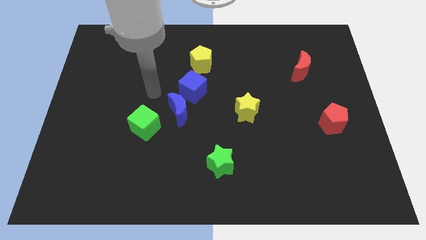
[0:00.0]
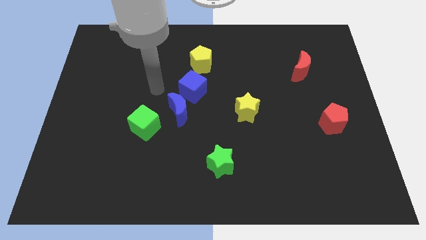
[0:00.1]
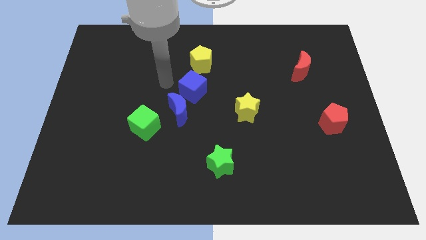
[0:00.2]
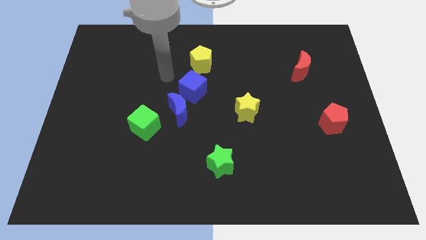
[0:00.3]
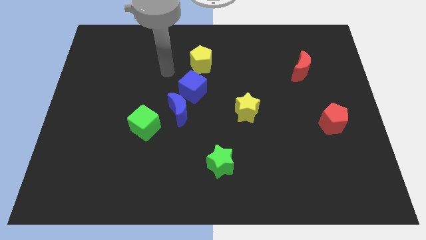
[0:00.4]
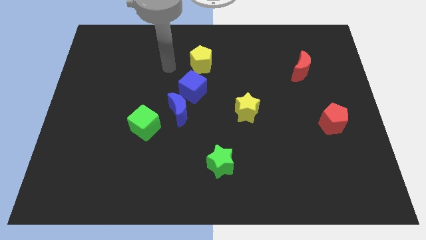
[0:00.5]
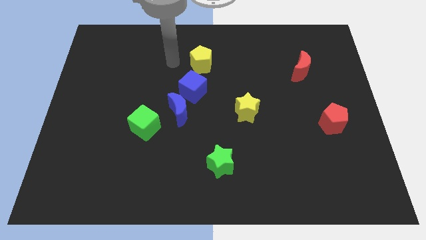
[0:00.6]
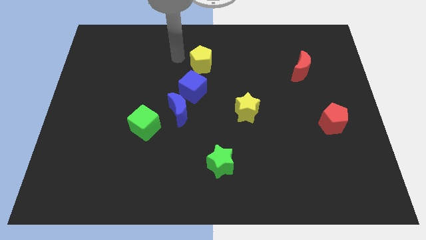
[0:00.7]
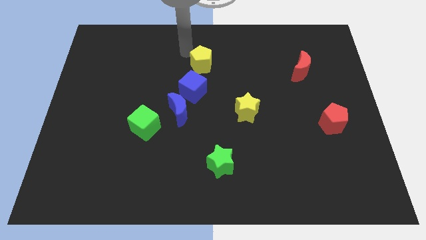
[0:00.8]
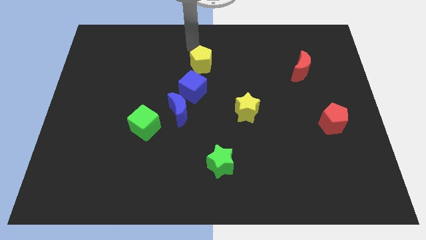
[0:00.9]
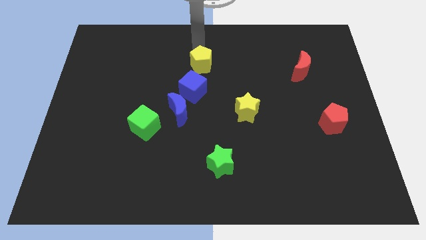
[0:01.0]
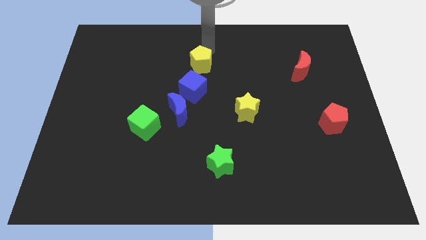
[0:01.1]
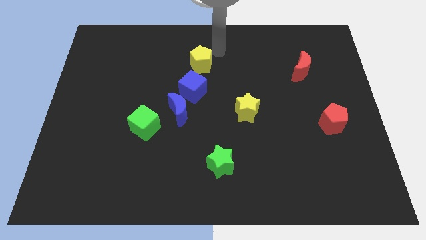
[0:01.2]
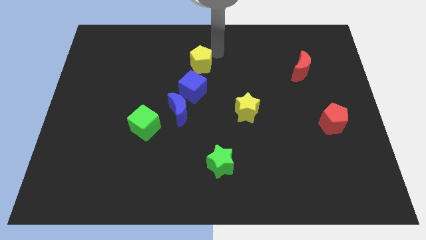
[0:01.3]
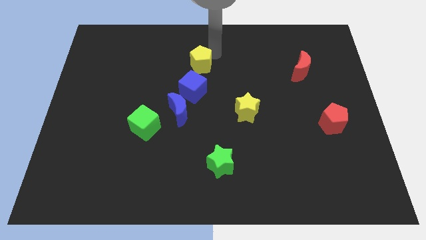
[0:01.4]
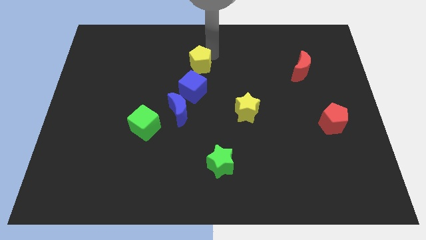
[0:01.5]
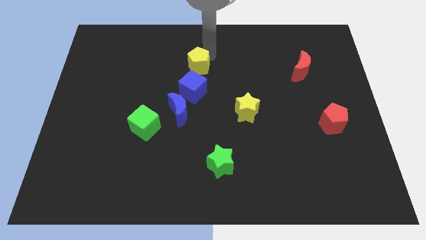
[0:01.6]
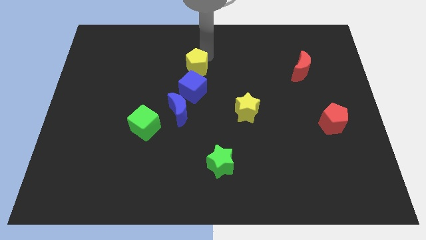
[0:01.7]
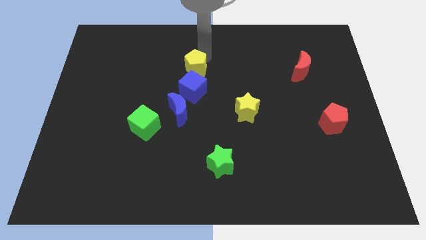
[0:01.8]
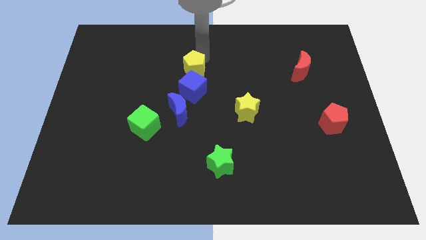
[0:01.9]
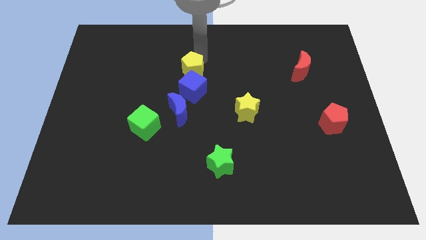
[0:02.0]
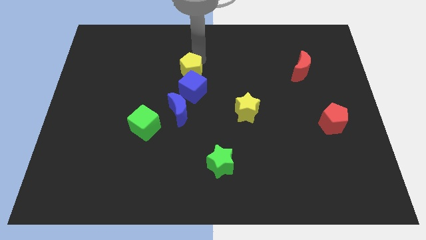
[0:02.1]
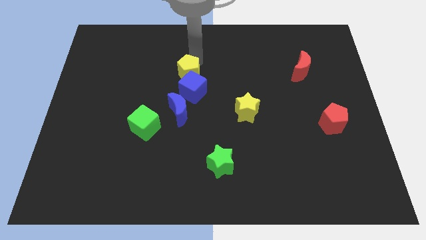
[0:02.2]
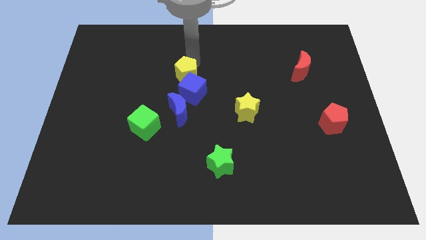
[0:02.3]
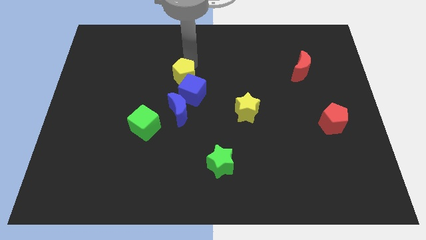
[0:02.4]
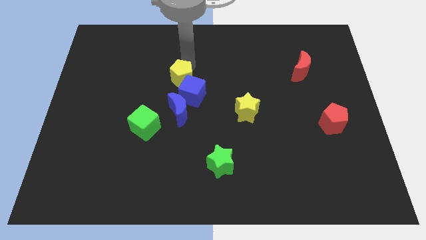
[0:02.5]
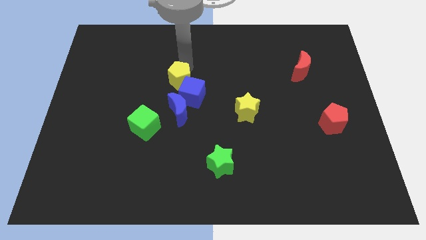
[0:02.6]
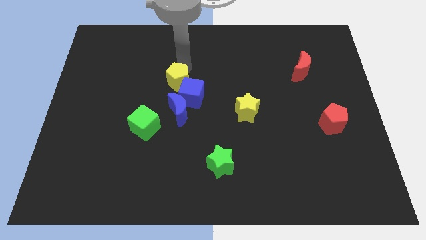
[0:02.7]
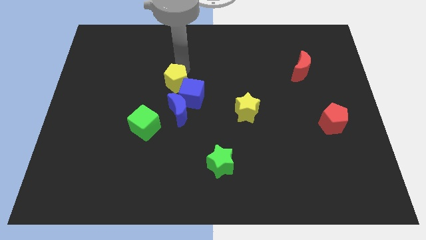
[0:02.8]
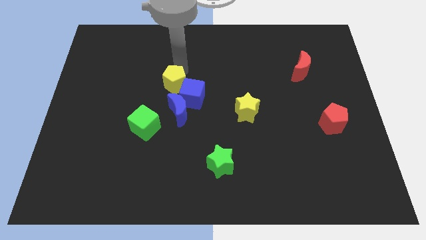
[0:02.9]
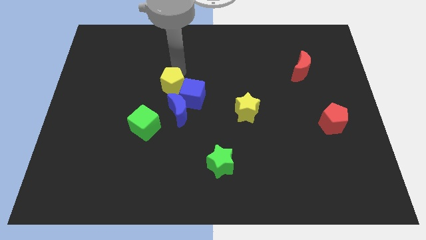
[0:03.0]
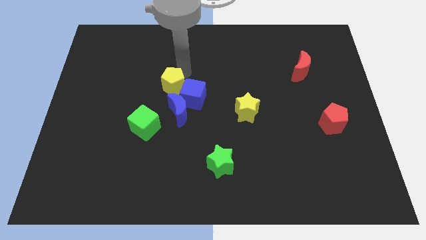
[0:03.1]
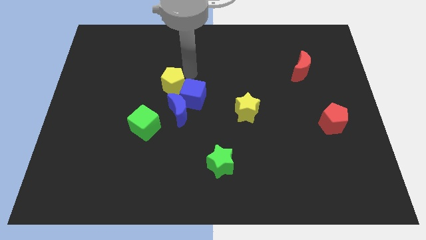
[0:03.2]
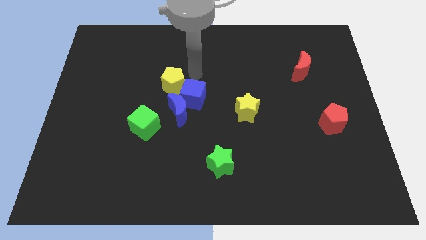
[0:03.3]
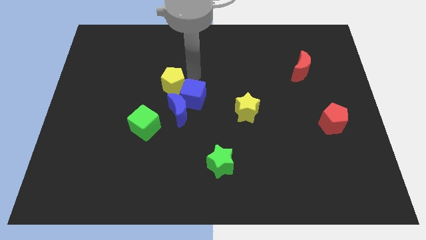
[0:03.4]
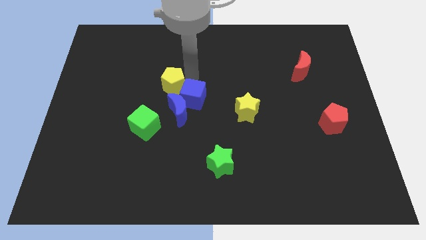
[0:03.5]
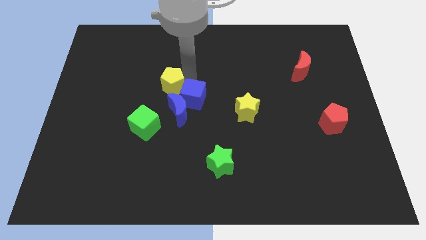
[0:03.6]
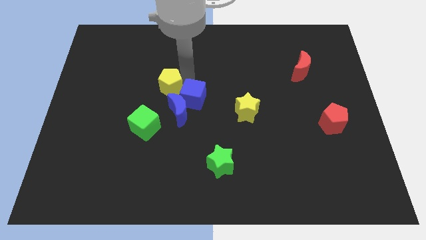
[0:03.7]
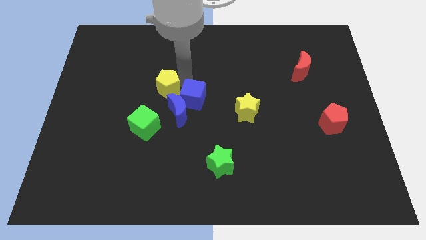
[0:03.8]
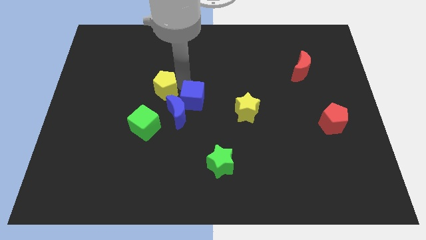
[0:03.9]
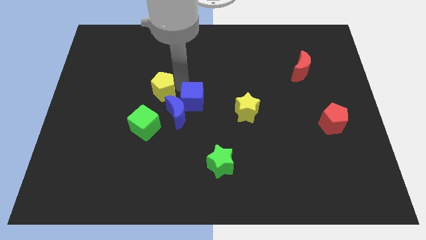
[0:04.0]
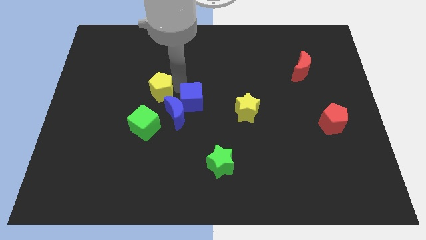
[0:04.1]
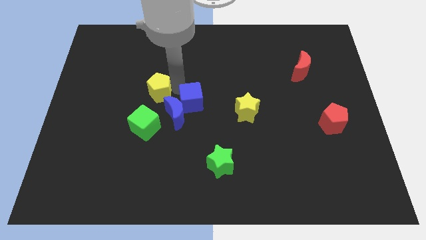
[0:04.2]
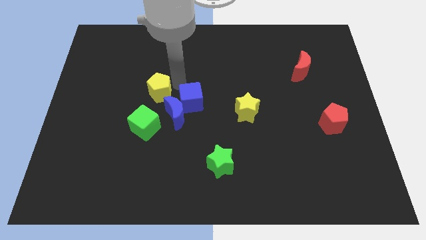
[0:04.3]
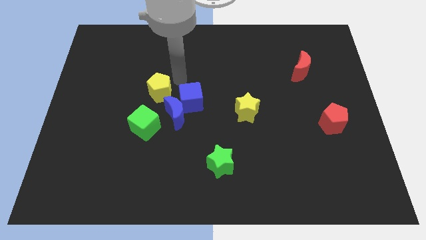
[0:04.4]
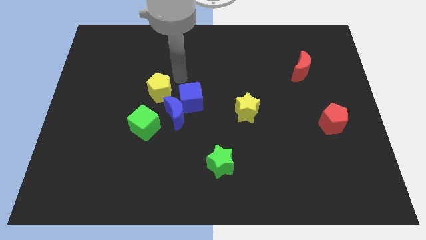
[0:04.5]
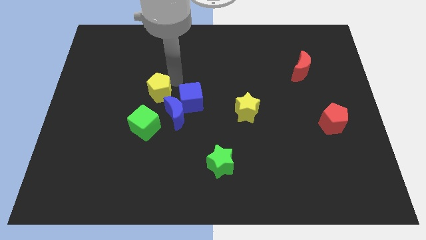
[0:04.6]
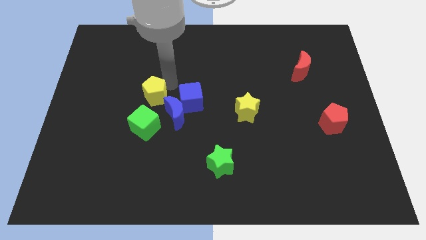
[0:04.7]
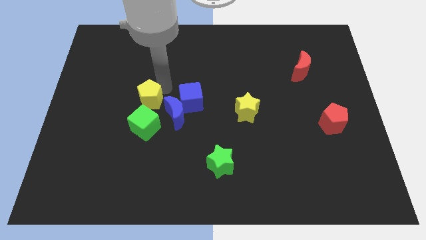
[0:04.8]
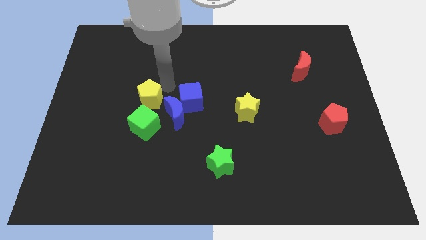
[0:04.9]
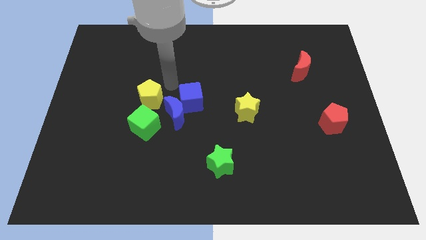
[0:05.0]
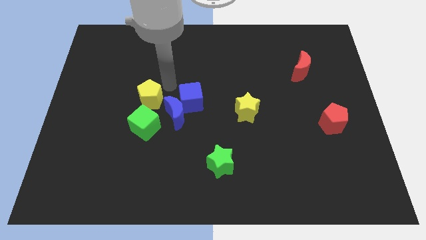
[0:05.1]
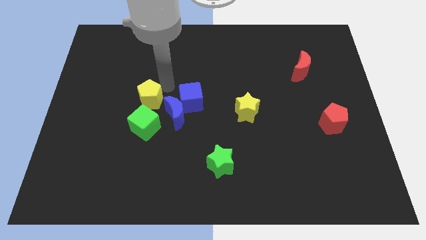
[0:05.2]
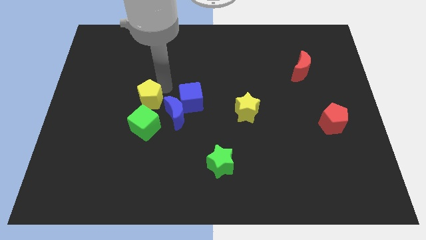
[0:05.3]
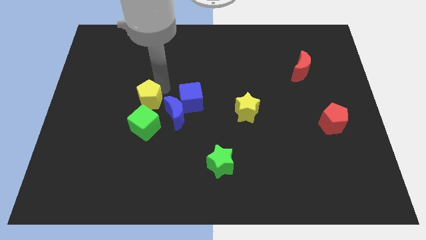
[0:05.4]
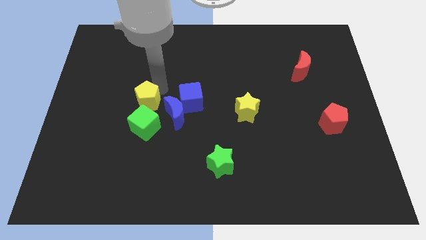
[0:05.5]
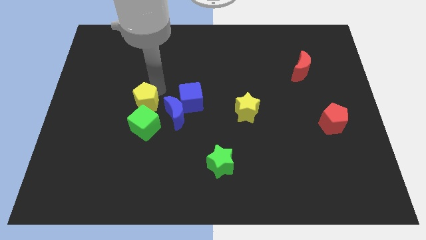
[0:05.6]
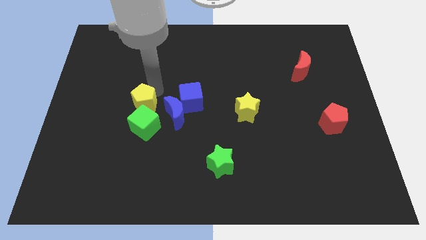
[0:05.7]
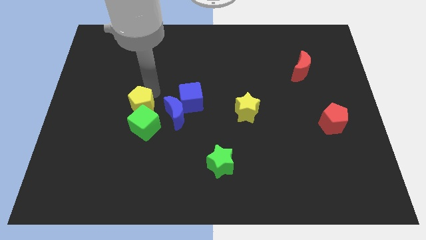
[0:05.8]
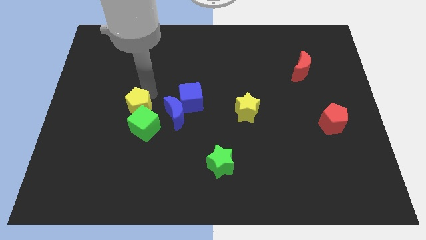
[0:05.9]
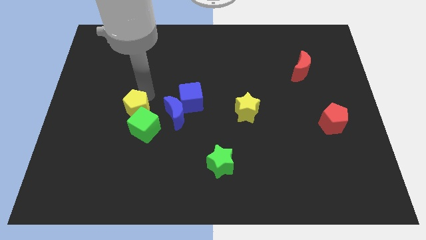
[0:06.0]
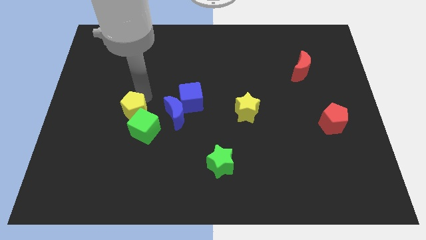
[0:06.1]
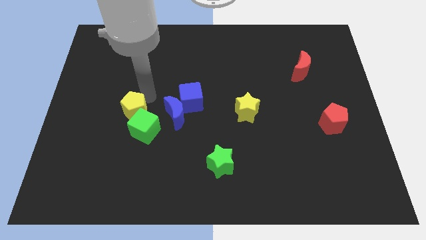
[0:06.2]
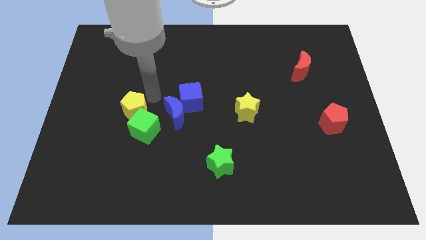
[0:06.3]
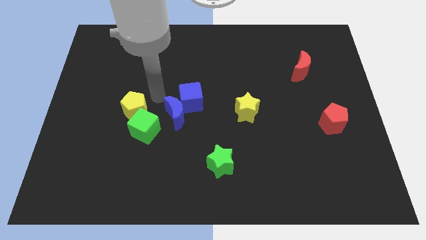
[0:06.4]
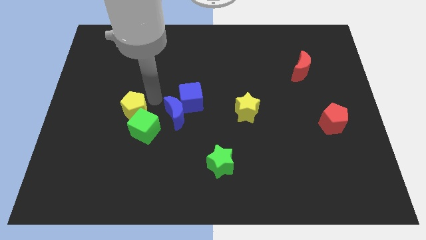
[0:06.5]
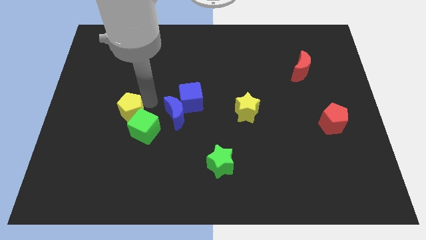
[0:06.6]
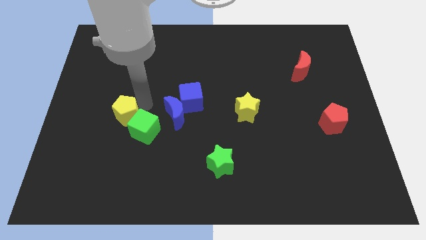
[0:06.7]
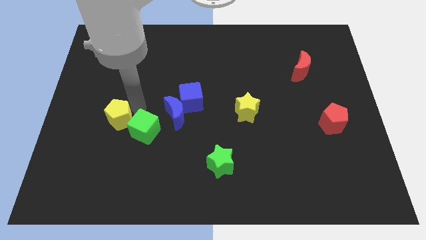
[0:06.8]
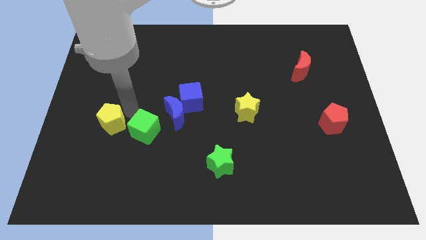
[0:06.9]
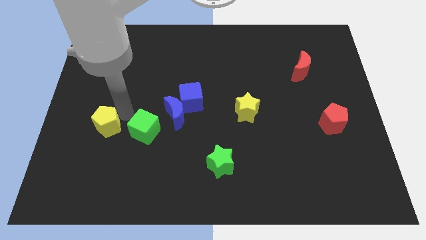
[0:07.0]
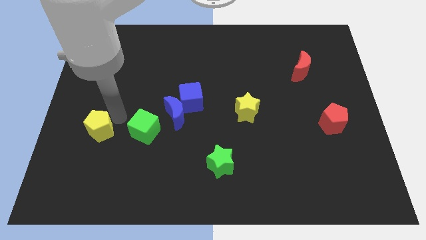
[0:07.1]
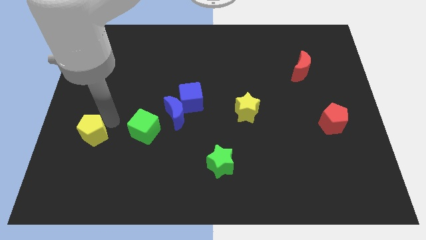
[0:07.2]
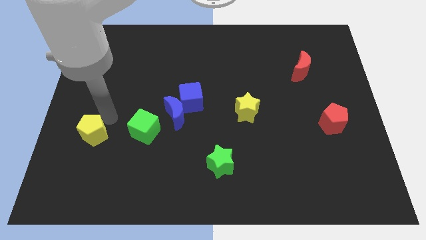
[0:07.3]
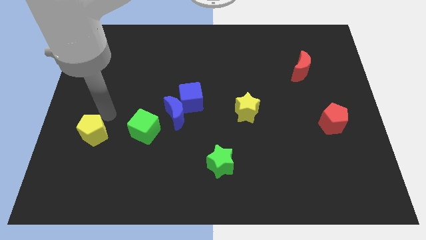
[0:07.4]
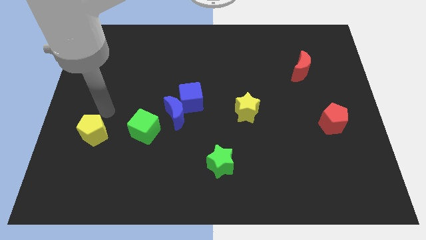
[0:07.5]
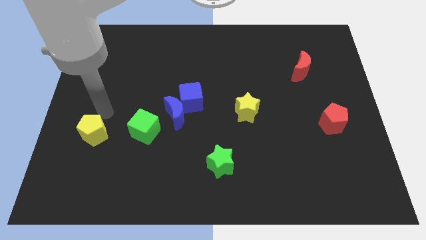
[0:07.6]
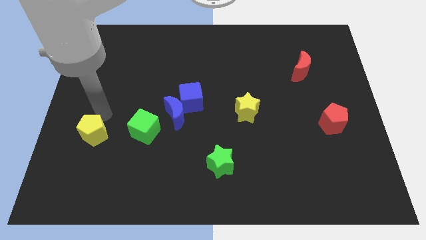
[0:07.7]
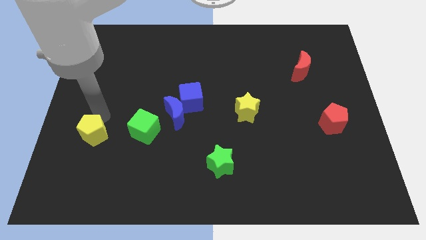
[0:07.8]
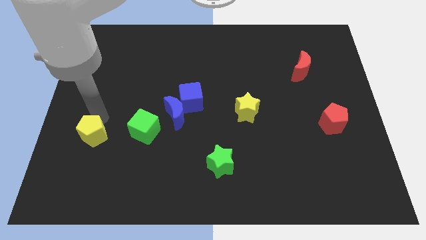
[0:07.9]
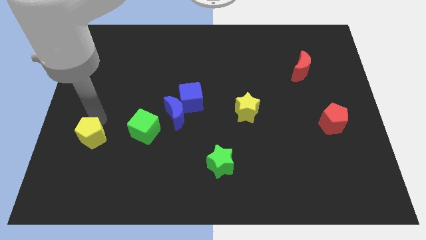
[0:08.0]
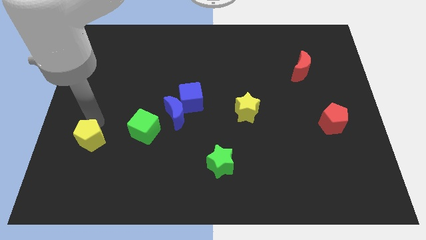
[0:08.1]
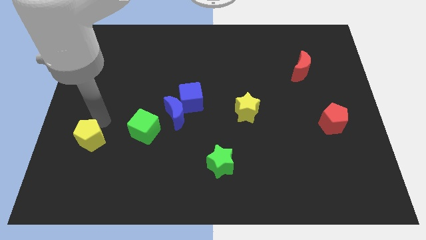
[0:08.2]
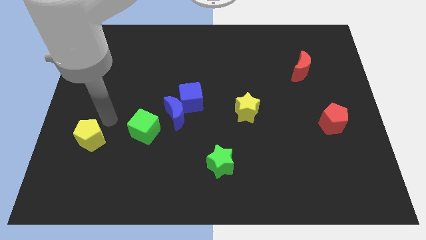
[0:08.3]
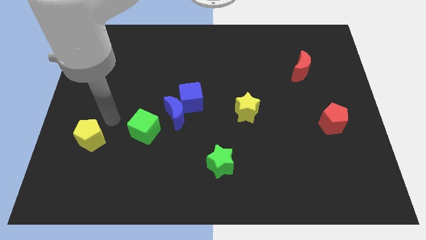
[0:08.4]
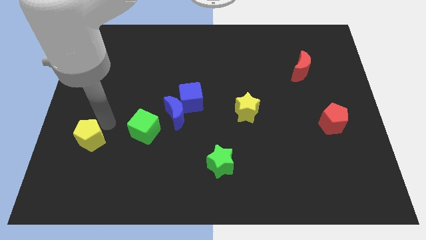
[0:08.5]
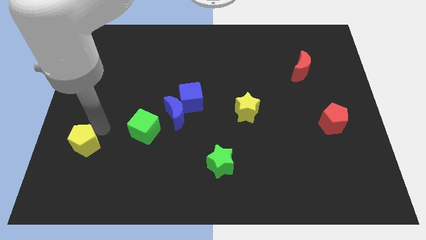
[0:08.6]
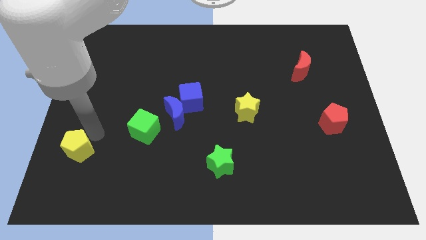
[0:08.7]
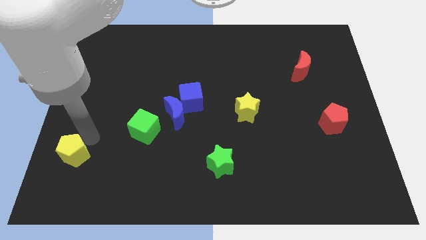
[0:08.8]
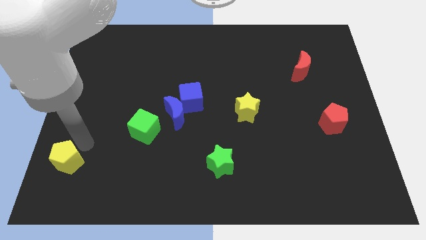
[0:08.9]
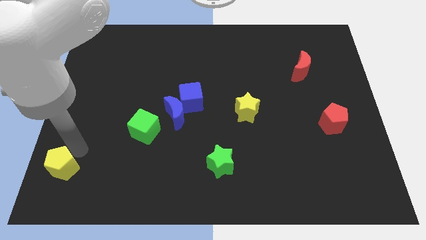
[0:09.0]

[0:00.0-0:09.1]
slide the yellow pentagon to the lower left corner
